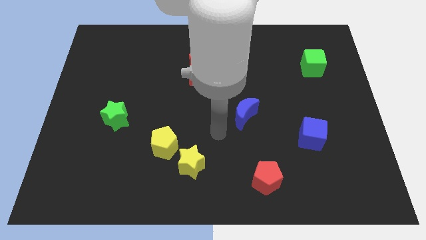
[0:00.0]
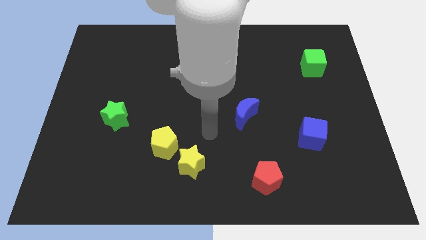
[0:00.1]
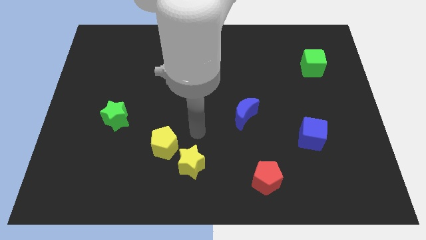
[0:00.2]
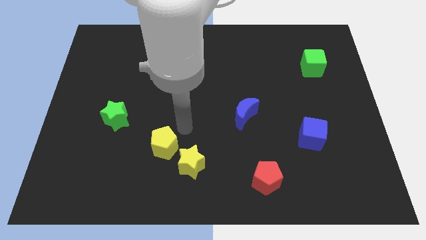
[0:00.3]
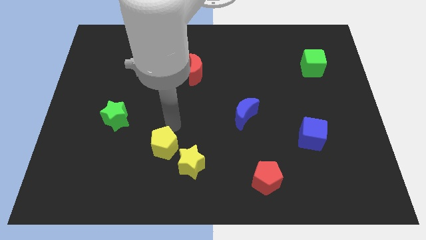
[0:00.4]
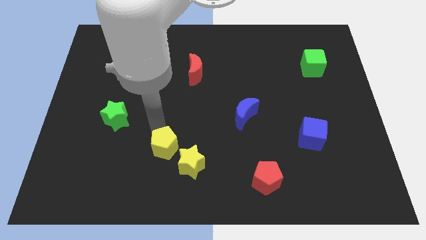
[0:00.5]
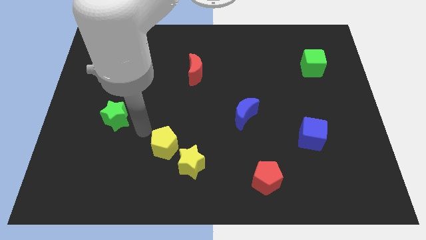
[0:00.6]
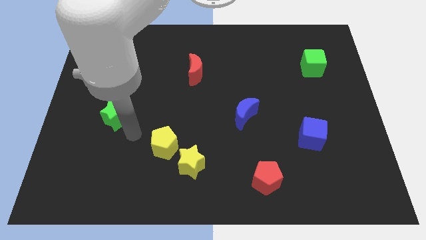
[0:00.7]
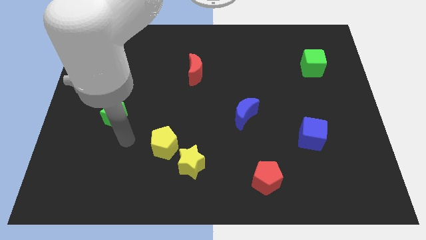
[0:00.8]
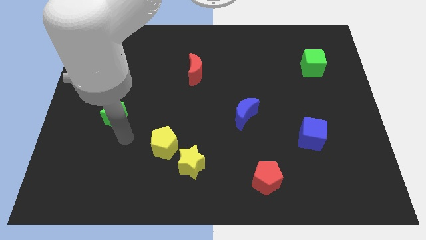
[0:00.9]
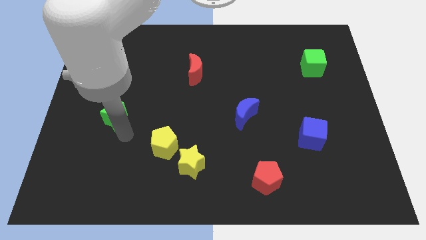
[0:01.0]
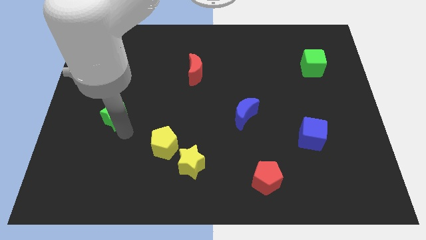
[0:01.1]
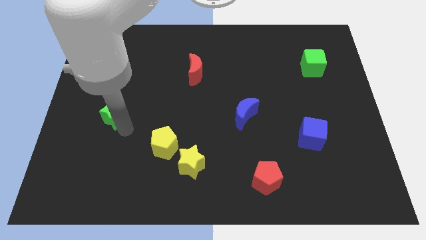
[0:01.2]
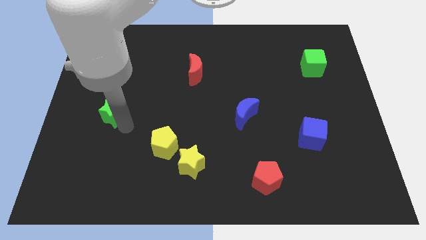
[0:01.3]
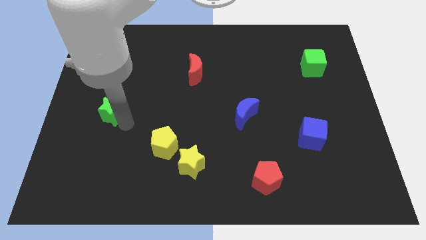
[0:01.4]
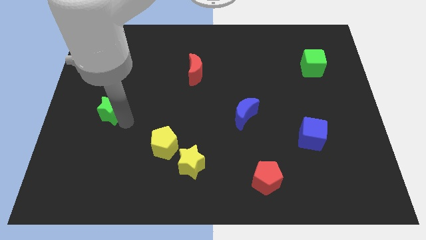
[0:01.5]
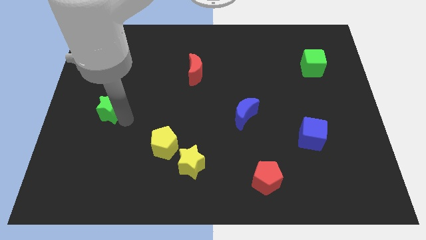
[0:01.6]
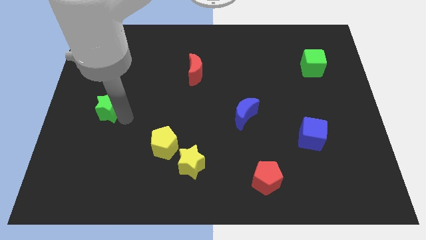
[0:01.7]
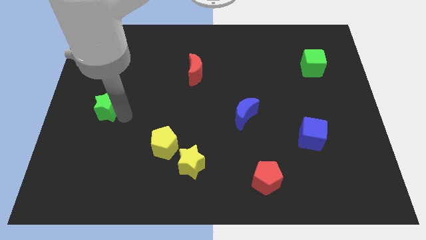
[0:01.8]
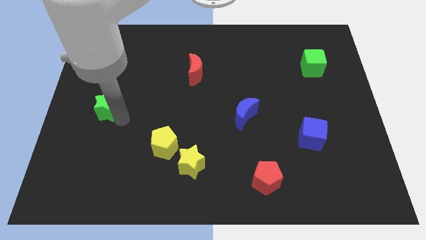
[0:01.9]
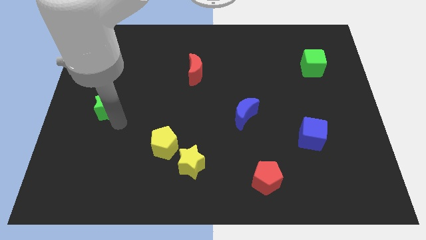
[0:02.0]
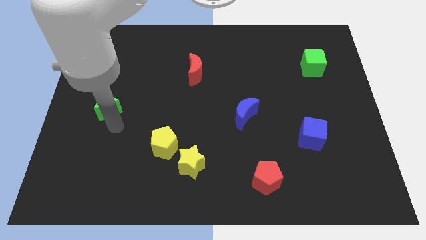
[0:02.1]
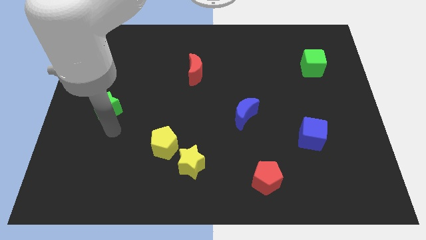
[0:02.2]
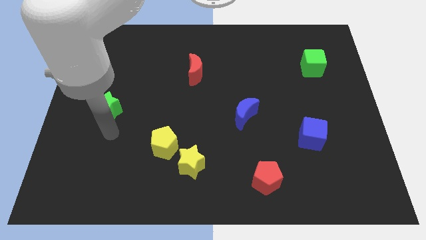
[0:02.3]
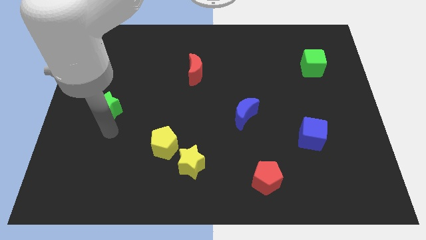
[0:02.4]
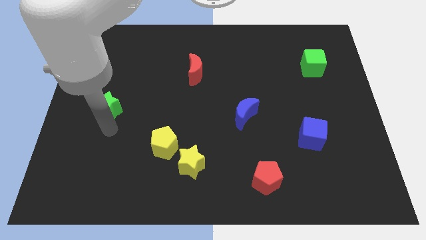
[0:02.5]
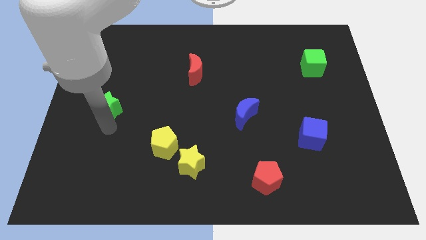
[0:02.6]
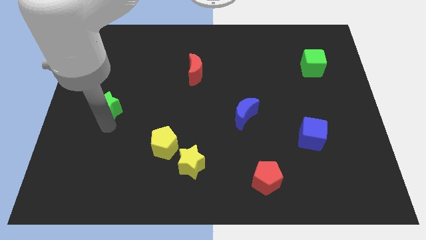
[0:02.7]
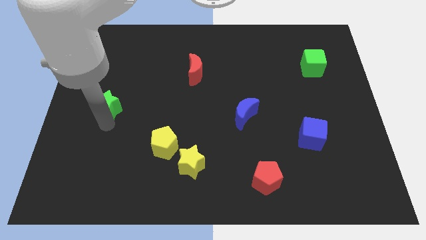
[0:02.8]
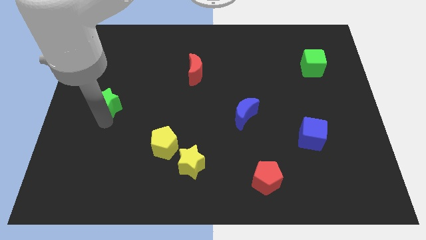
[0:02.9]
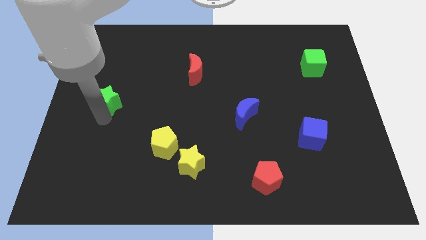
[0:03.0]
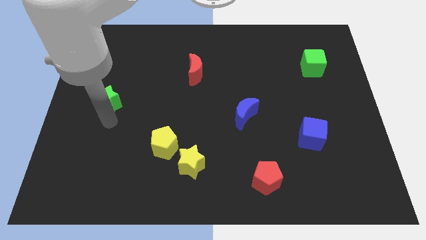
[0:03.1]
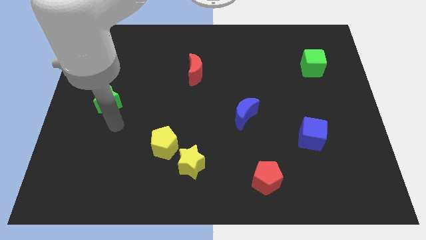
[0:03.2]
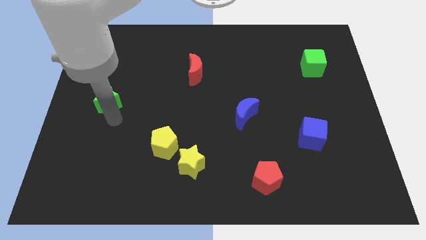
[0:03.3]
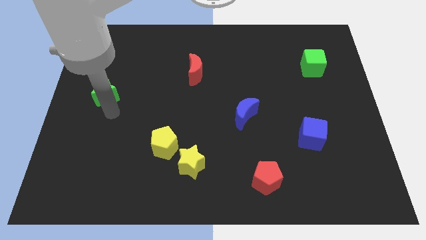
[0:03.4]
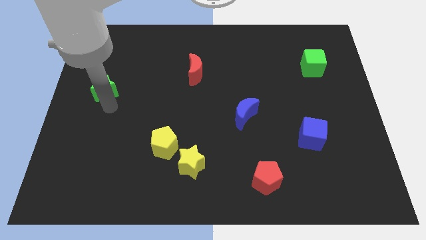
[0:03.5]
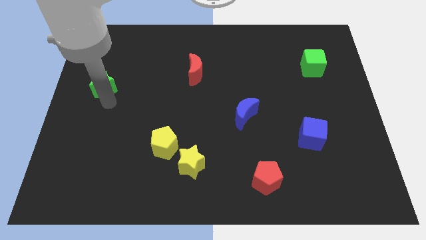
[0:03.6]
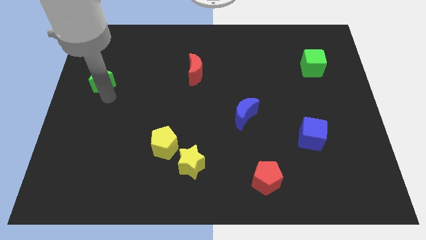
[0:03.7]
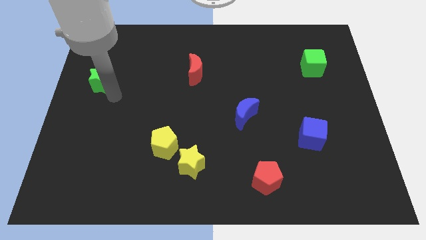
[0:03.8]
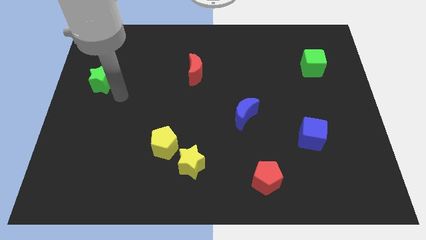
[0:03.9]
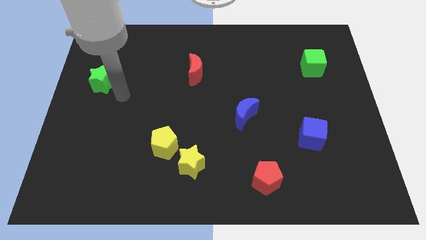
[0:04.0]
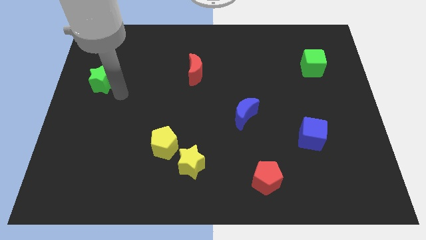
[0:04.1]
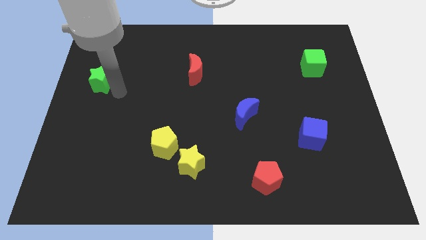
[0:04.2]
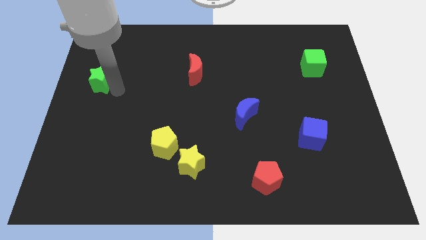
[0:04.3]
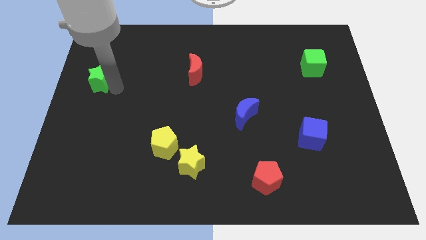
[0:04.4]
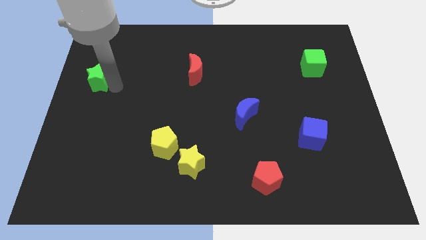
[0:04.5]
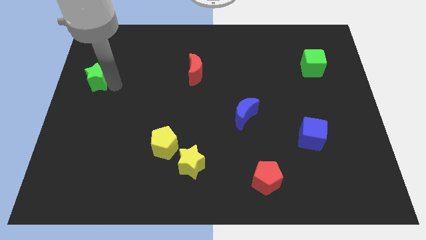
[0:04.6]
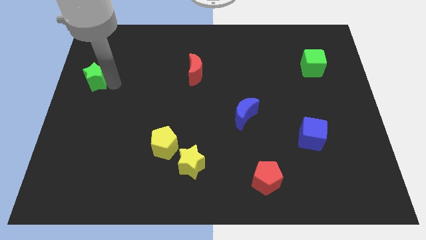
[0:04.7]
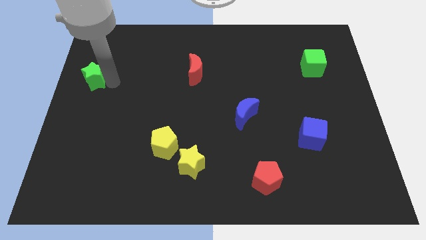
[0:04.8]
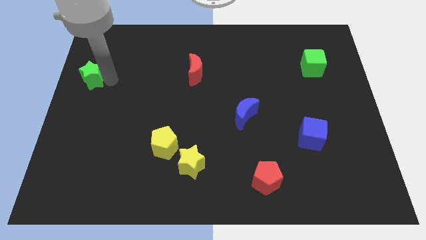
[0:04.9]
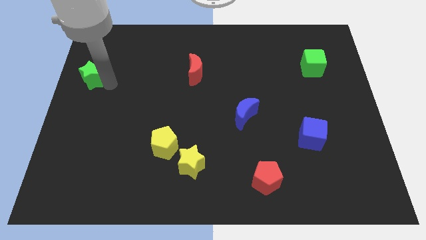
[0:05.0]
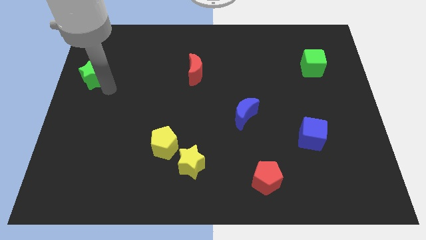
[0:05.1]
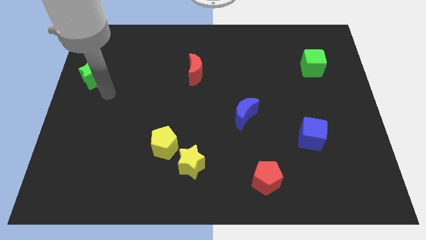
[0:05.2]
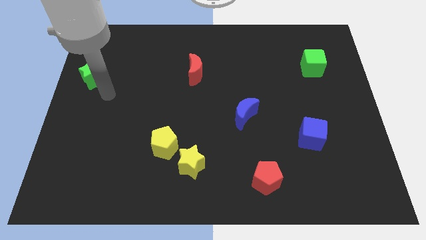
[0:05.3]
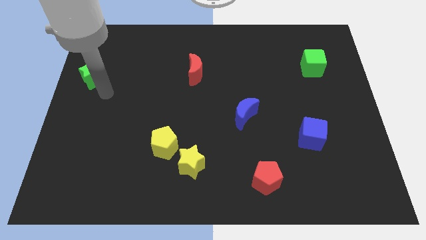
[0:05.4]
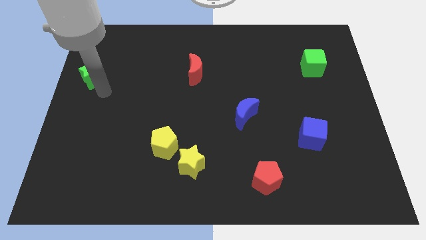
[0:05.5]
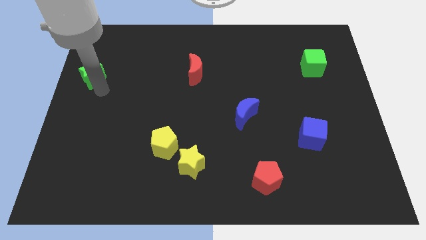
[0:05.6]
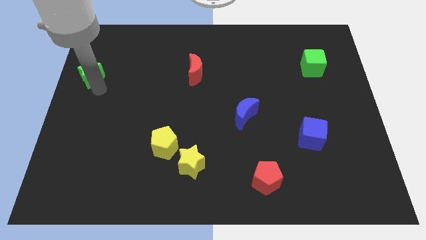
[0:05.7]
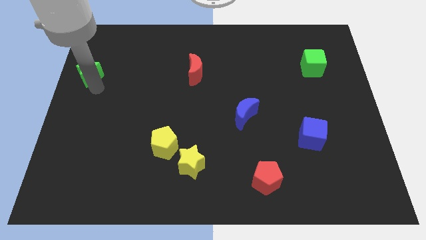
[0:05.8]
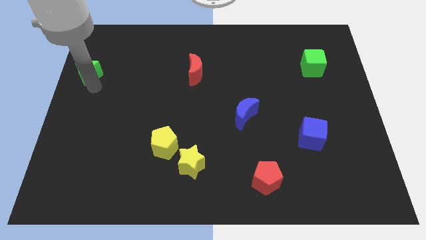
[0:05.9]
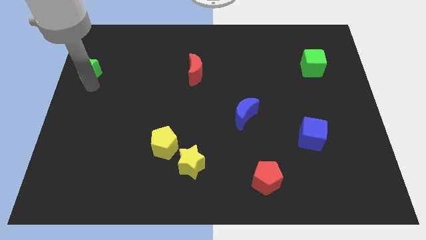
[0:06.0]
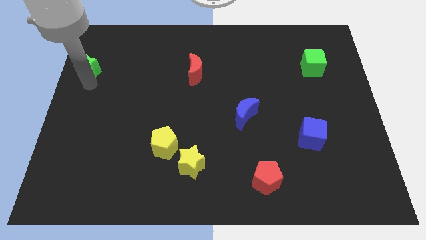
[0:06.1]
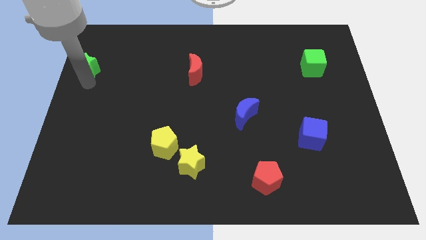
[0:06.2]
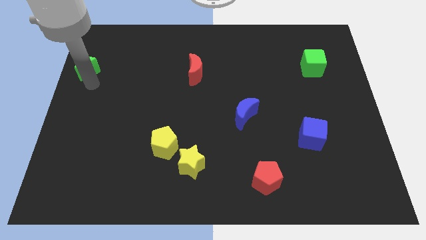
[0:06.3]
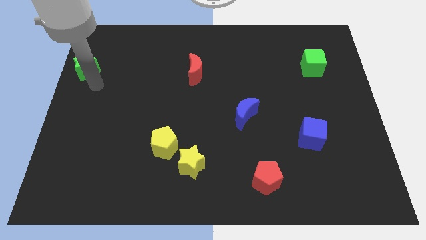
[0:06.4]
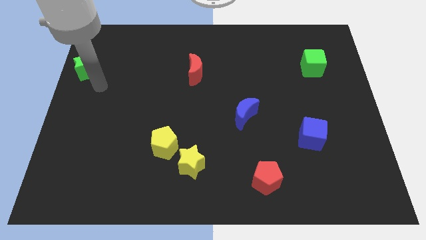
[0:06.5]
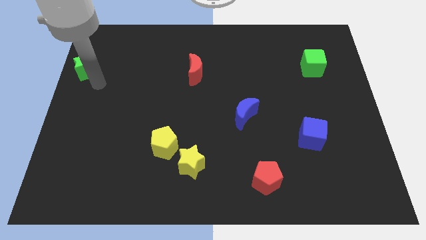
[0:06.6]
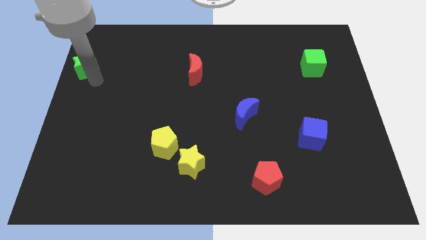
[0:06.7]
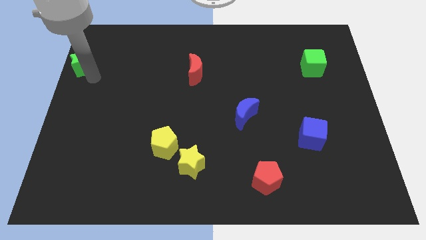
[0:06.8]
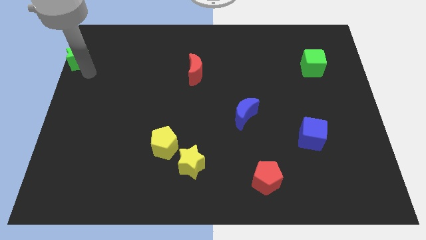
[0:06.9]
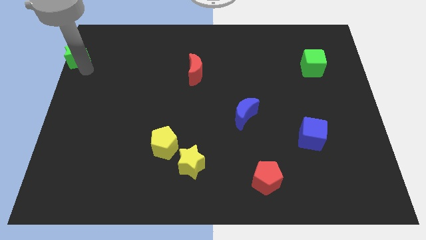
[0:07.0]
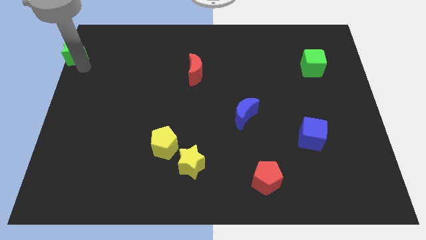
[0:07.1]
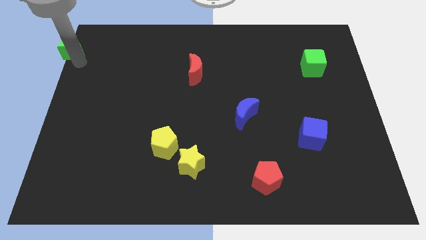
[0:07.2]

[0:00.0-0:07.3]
push the green star to the top left corner
